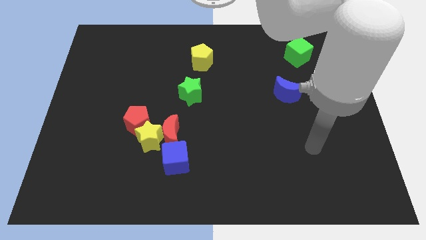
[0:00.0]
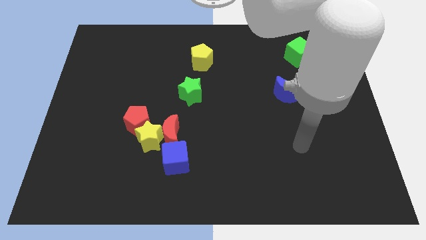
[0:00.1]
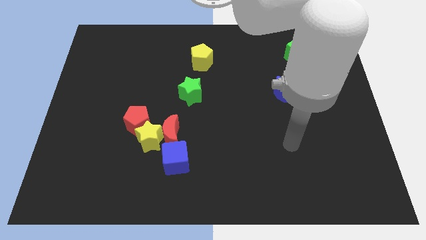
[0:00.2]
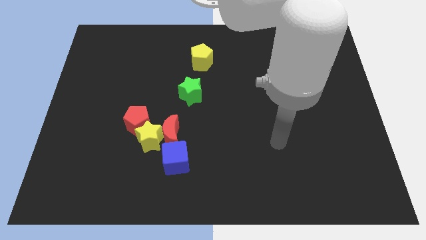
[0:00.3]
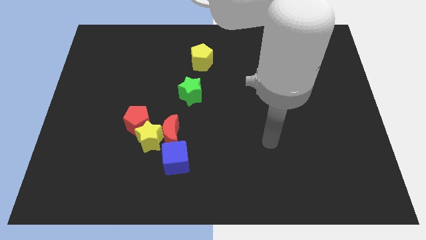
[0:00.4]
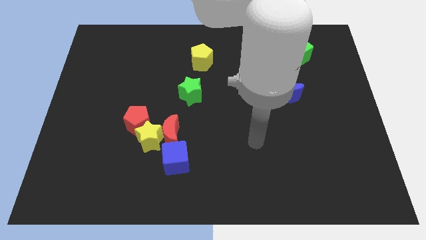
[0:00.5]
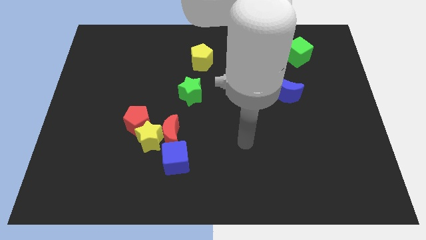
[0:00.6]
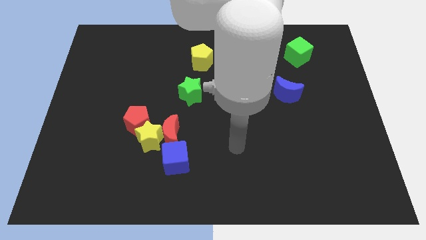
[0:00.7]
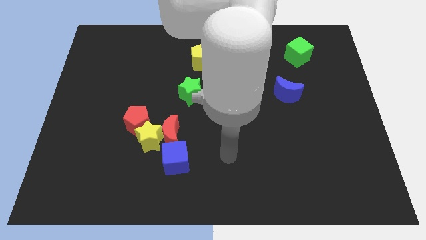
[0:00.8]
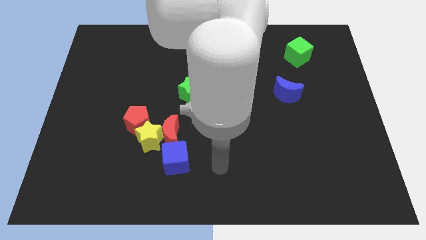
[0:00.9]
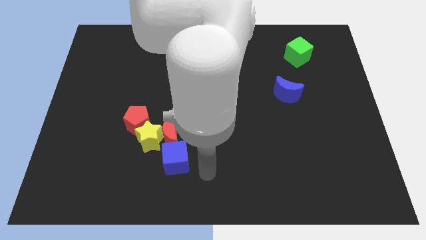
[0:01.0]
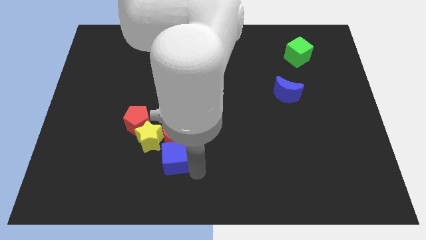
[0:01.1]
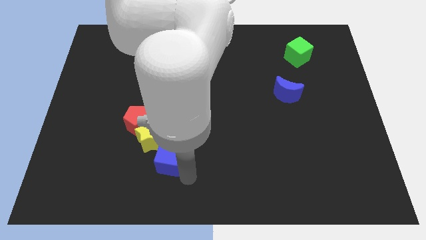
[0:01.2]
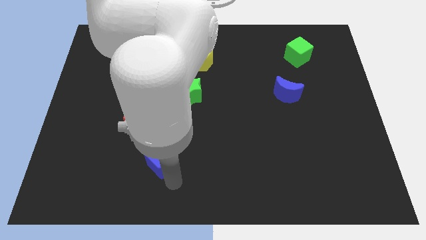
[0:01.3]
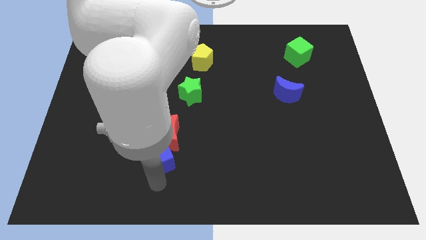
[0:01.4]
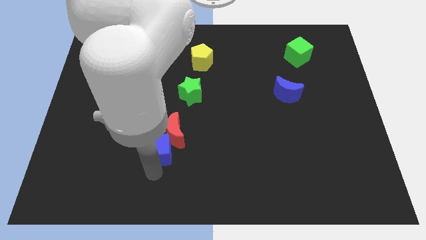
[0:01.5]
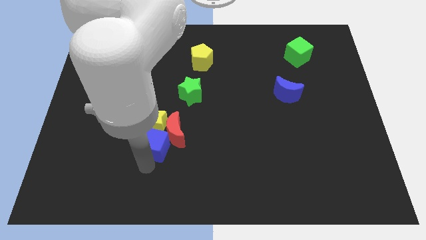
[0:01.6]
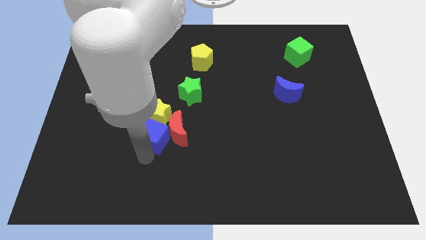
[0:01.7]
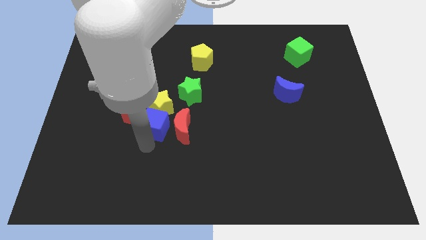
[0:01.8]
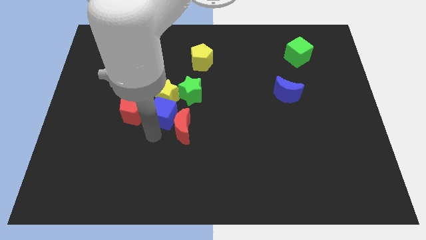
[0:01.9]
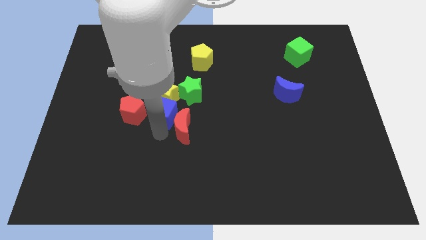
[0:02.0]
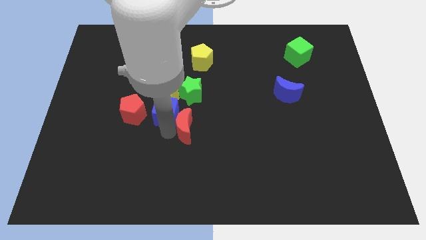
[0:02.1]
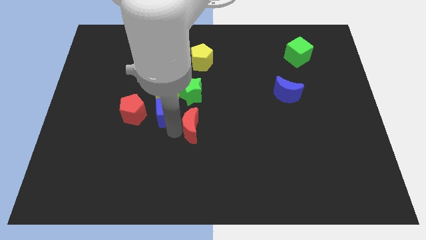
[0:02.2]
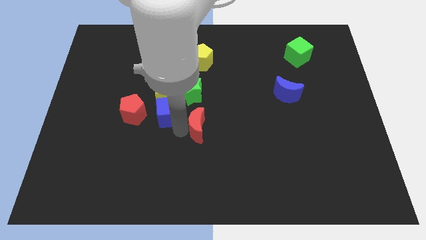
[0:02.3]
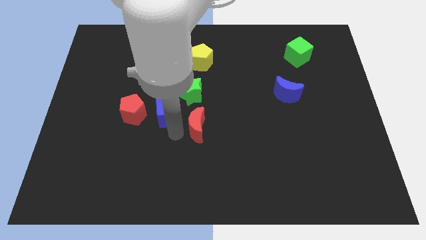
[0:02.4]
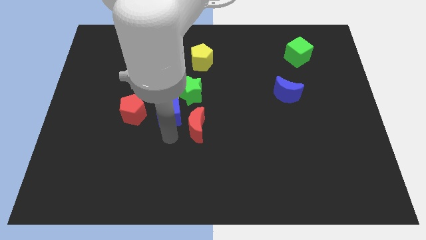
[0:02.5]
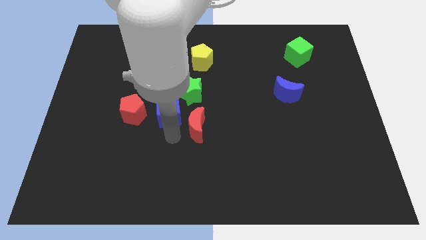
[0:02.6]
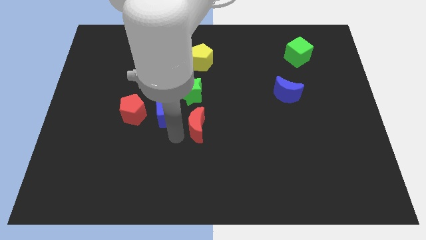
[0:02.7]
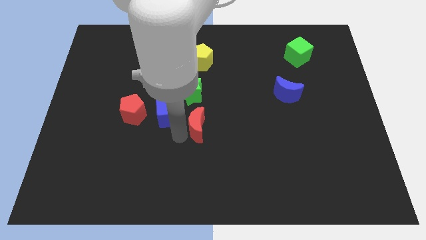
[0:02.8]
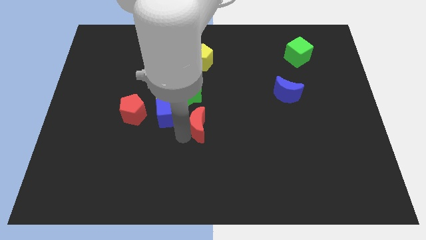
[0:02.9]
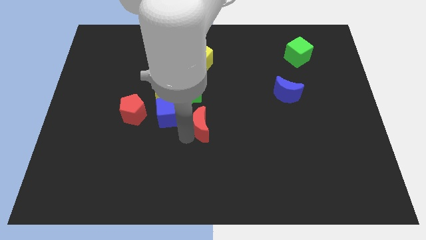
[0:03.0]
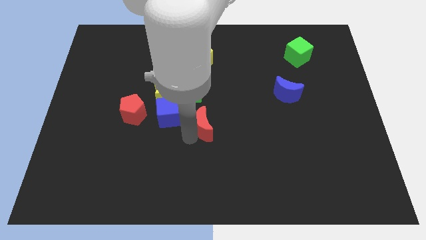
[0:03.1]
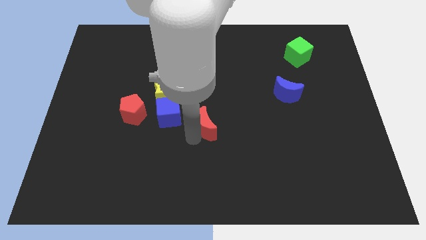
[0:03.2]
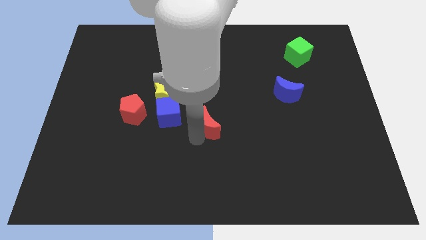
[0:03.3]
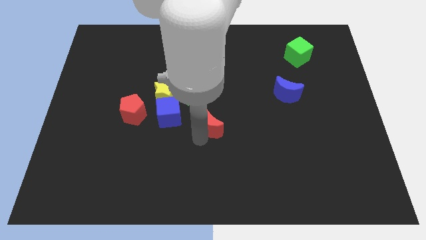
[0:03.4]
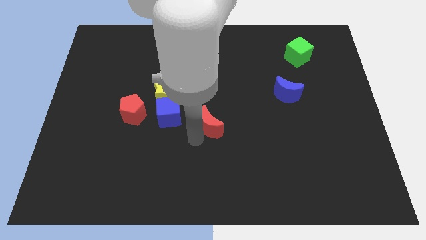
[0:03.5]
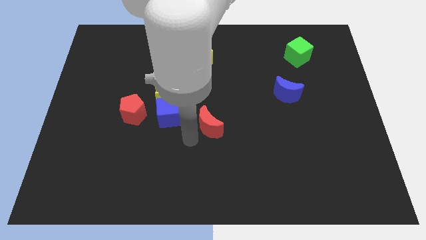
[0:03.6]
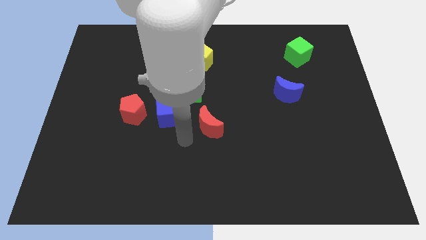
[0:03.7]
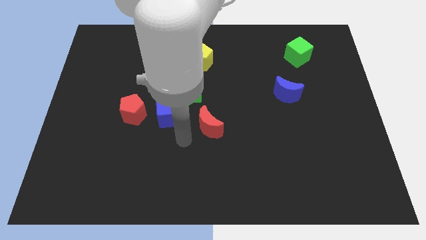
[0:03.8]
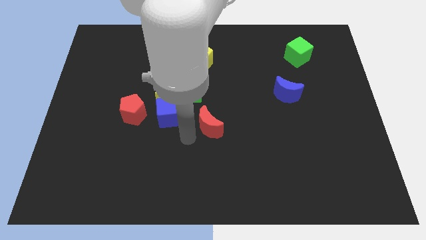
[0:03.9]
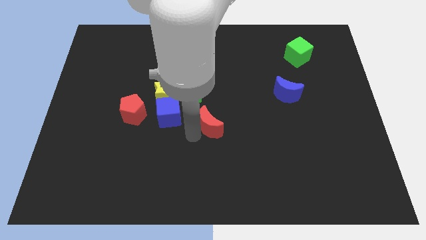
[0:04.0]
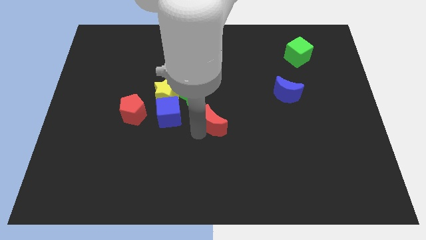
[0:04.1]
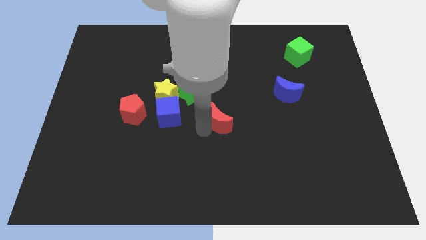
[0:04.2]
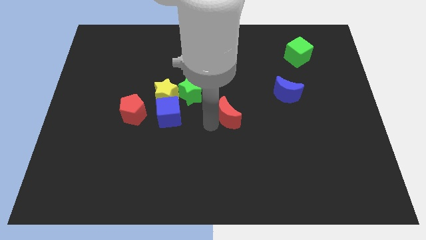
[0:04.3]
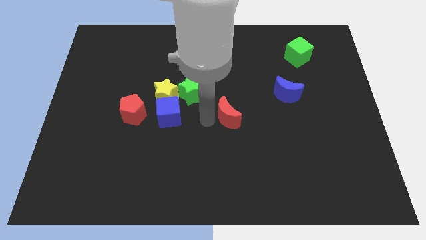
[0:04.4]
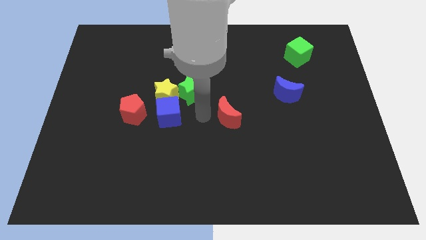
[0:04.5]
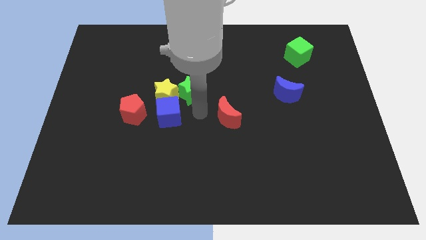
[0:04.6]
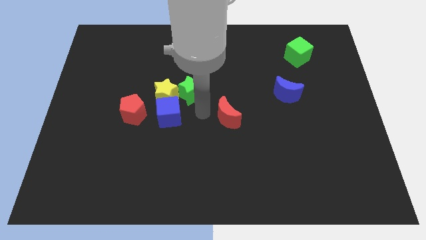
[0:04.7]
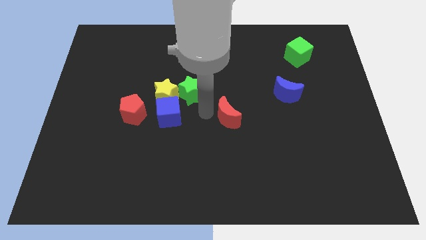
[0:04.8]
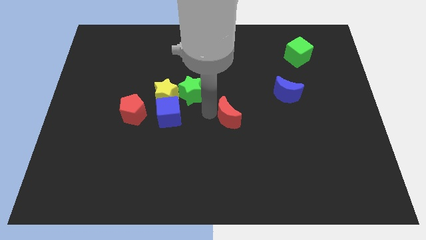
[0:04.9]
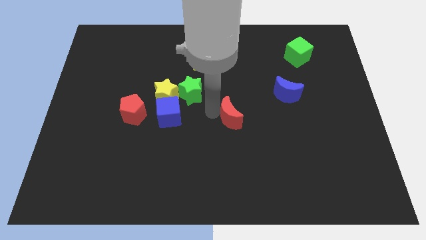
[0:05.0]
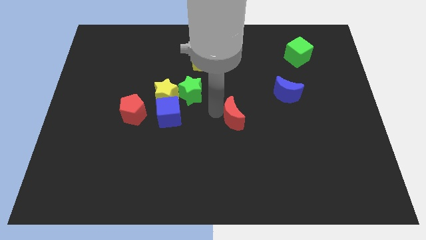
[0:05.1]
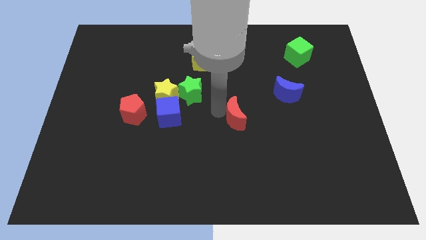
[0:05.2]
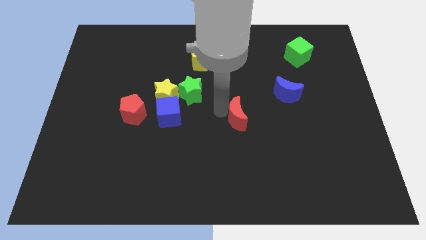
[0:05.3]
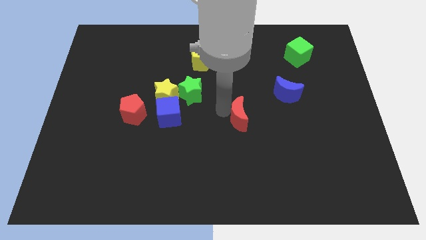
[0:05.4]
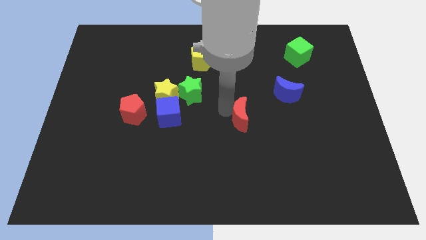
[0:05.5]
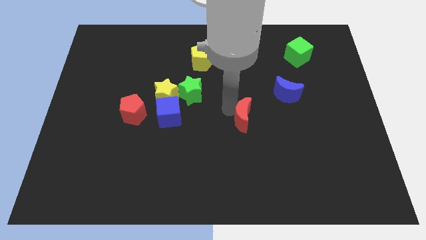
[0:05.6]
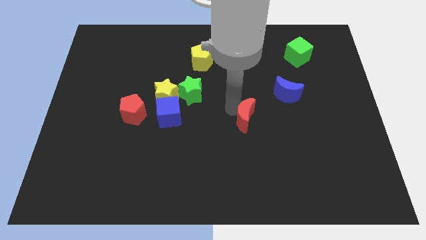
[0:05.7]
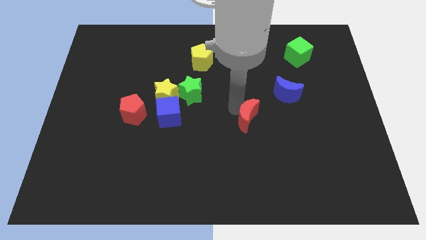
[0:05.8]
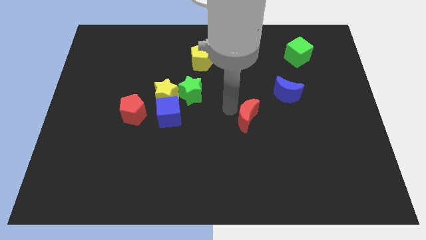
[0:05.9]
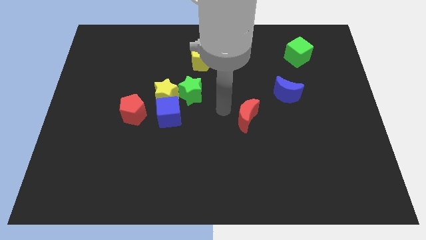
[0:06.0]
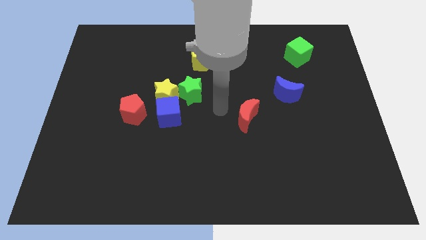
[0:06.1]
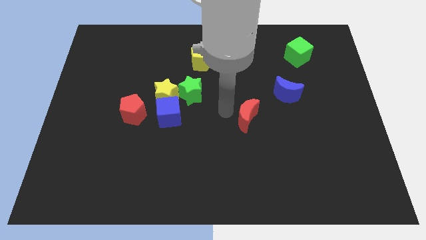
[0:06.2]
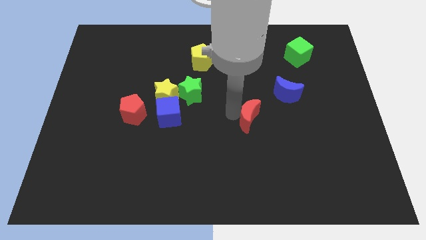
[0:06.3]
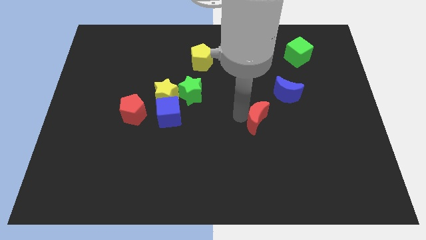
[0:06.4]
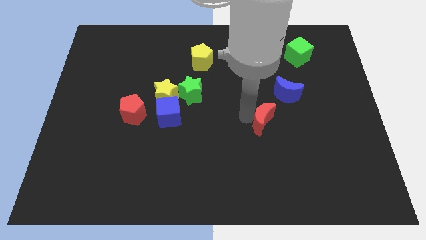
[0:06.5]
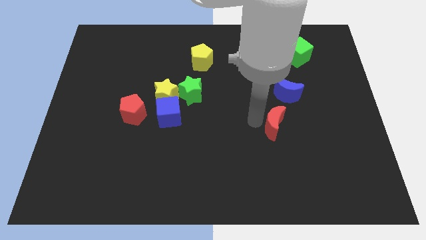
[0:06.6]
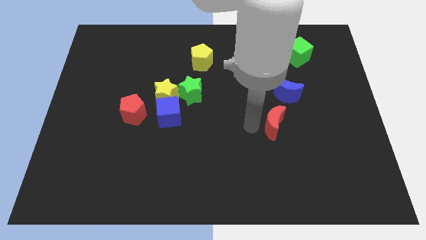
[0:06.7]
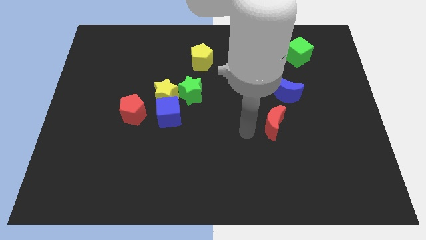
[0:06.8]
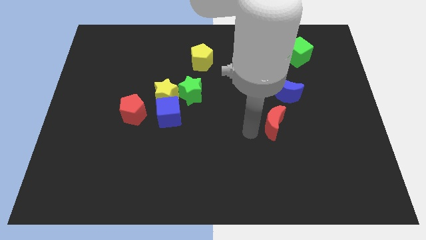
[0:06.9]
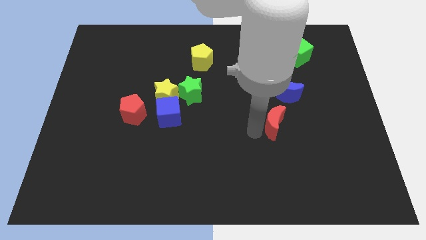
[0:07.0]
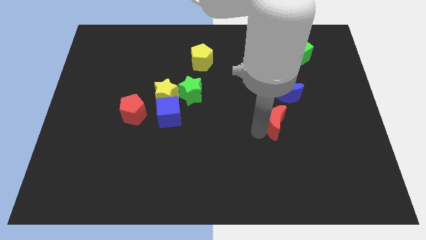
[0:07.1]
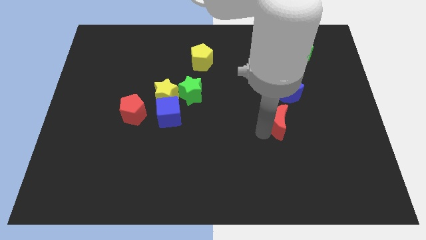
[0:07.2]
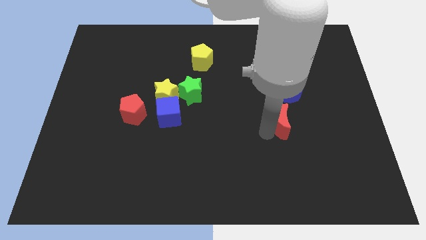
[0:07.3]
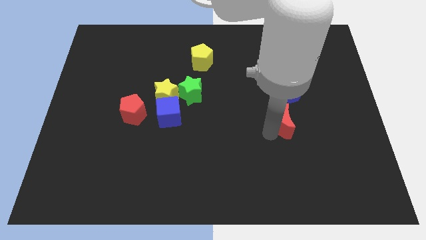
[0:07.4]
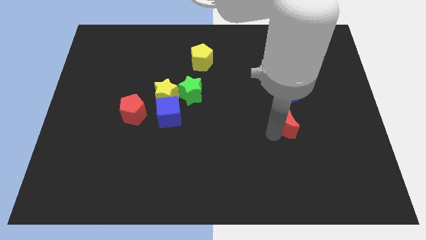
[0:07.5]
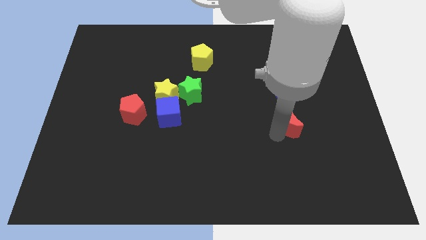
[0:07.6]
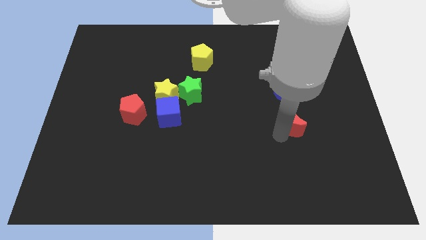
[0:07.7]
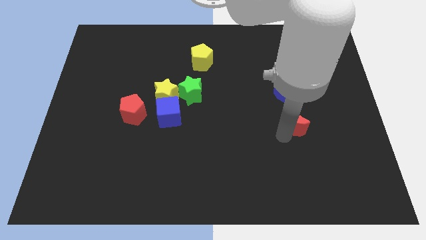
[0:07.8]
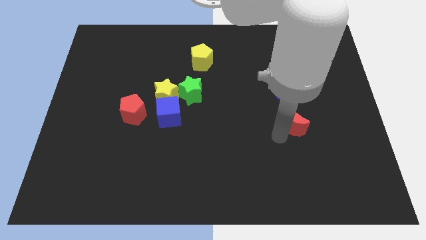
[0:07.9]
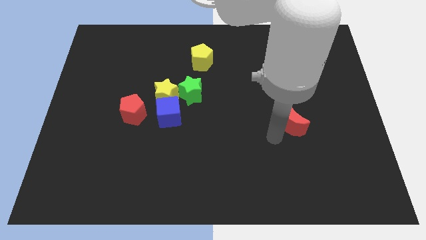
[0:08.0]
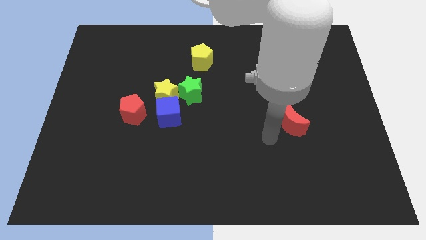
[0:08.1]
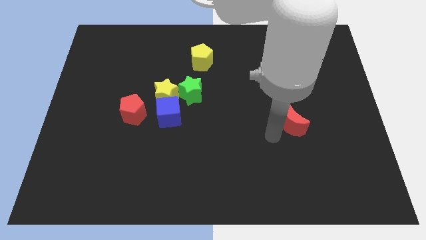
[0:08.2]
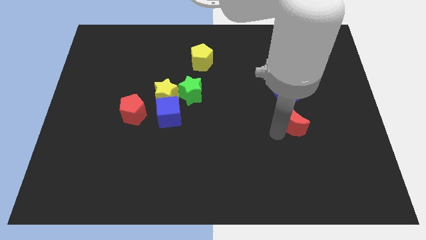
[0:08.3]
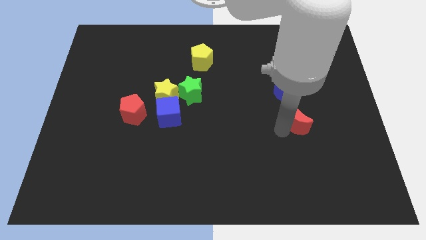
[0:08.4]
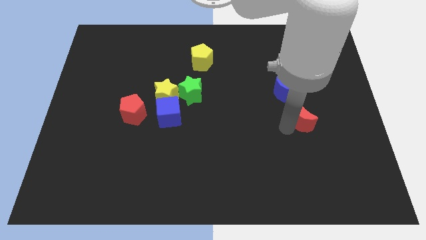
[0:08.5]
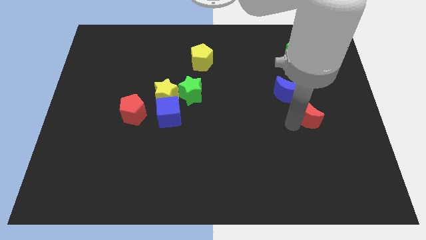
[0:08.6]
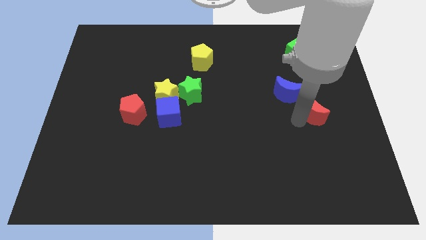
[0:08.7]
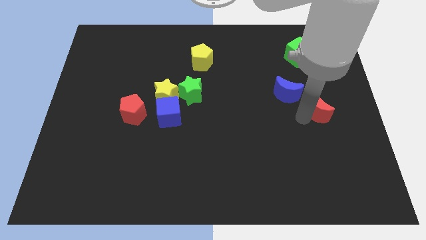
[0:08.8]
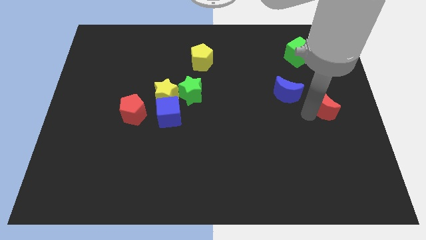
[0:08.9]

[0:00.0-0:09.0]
slide the red moon to the right side
